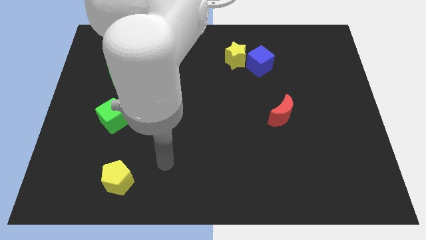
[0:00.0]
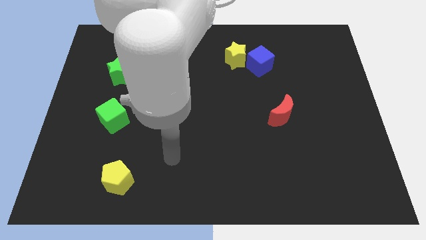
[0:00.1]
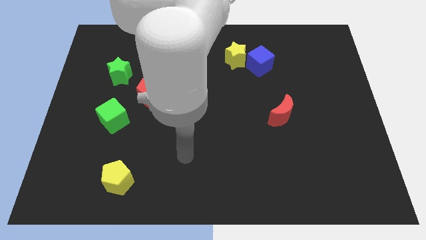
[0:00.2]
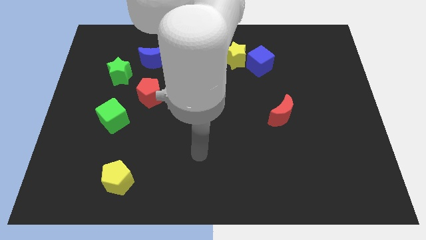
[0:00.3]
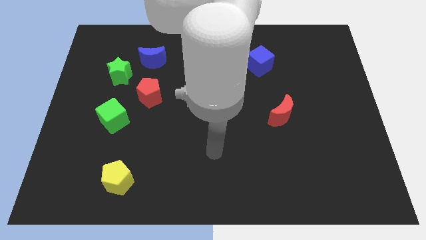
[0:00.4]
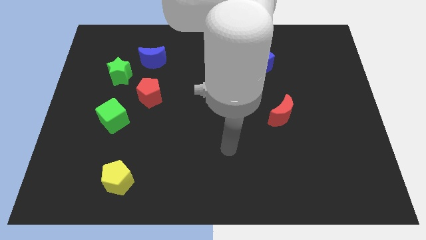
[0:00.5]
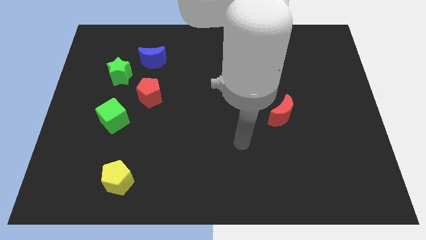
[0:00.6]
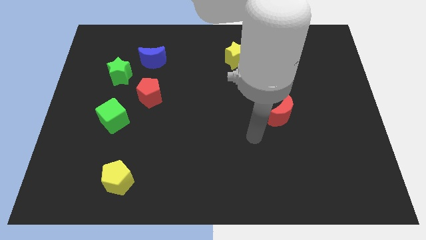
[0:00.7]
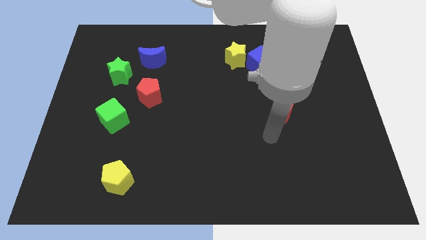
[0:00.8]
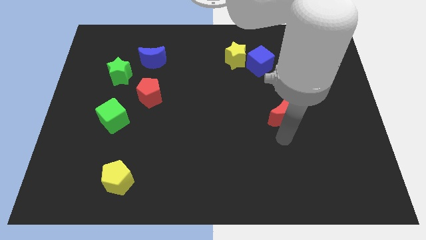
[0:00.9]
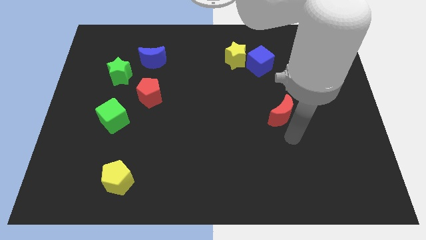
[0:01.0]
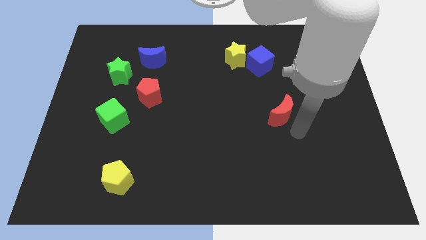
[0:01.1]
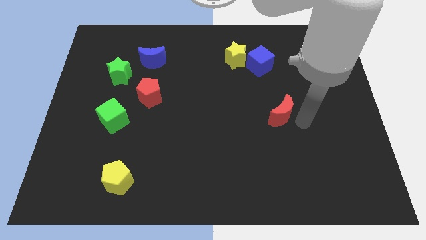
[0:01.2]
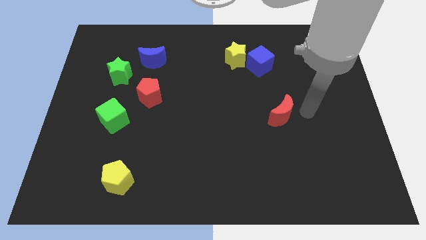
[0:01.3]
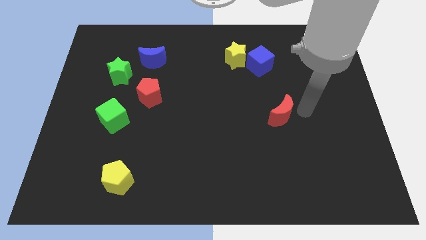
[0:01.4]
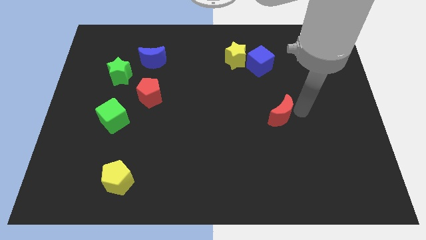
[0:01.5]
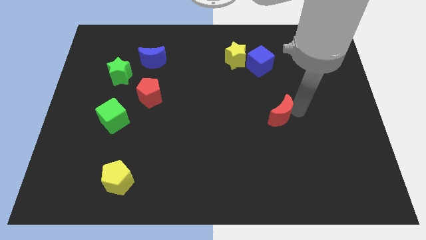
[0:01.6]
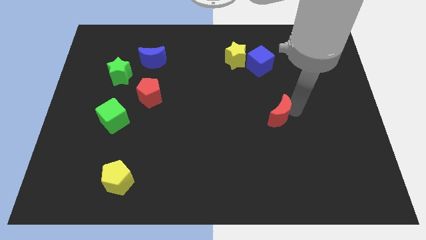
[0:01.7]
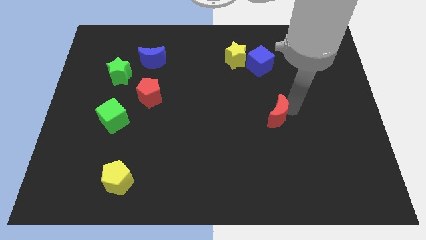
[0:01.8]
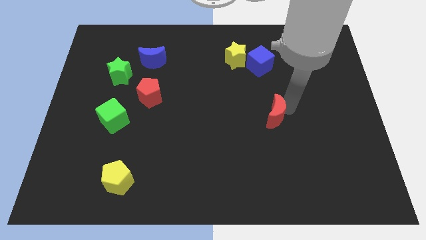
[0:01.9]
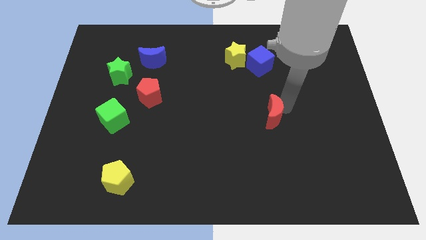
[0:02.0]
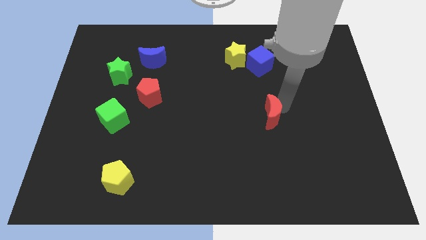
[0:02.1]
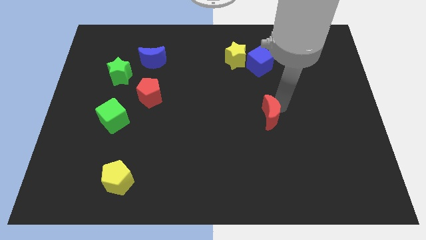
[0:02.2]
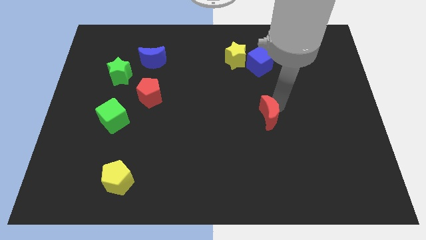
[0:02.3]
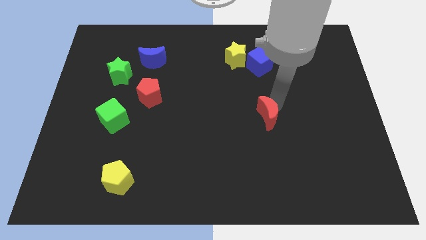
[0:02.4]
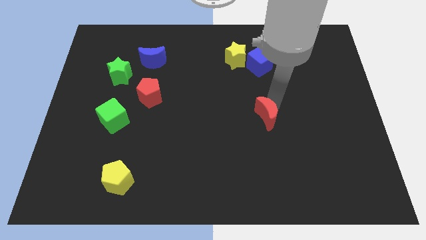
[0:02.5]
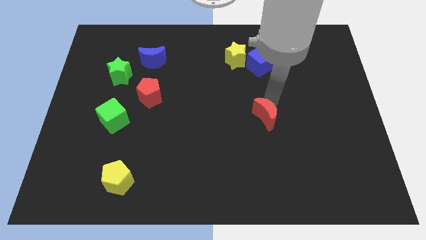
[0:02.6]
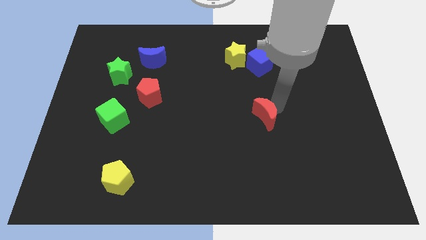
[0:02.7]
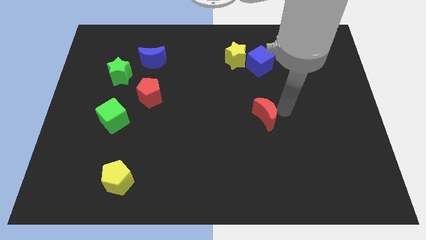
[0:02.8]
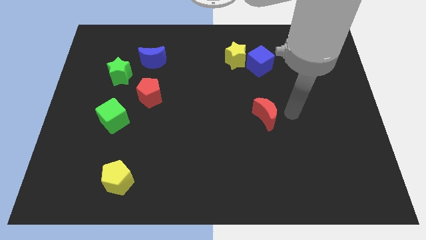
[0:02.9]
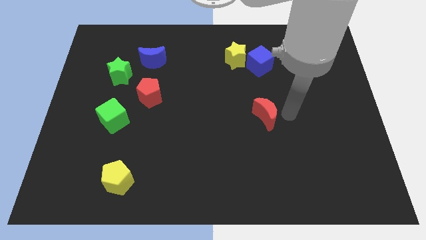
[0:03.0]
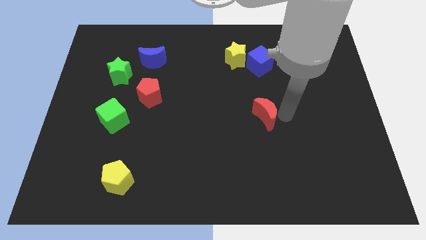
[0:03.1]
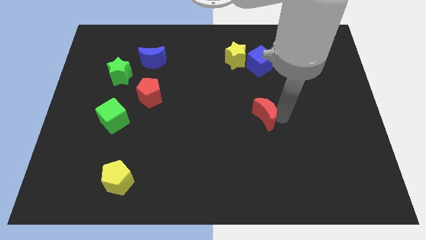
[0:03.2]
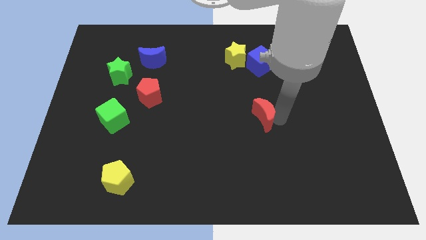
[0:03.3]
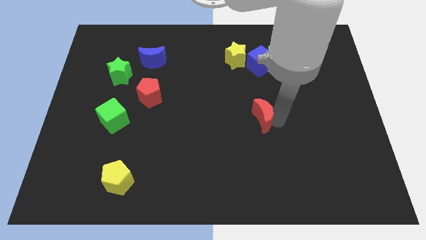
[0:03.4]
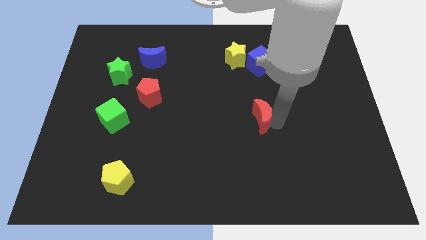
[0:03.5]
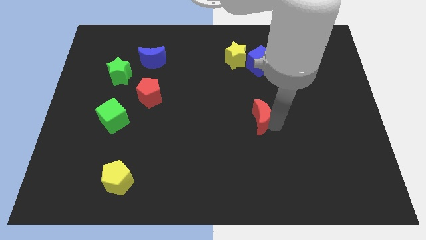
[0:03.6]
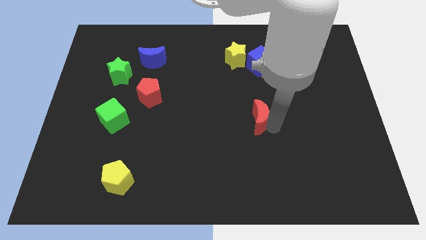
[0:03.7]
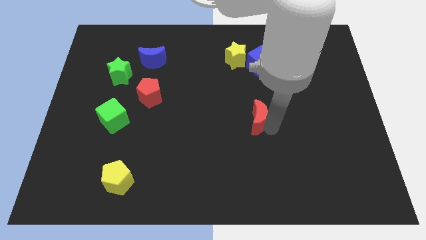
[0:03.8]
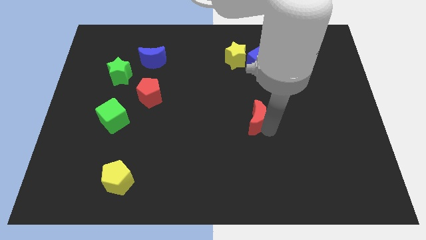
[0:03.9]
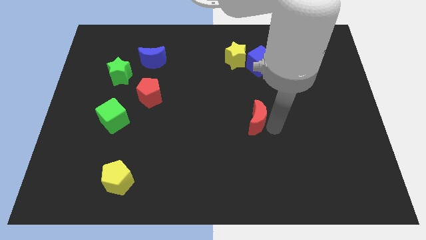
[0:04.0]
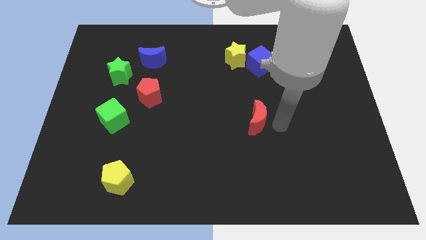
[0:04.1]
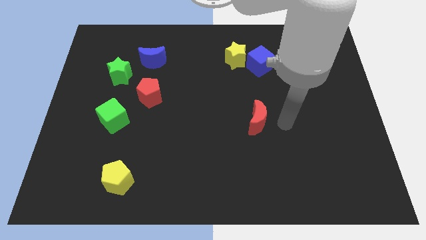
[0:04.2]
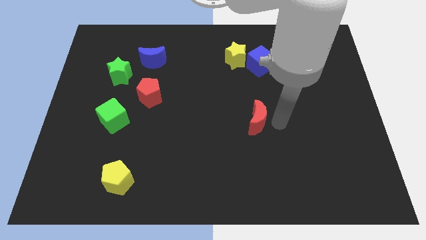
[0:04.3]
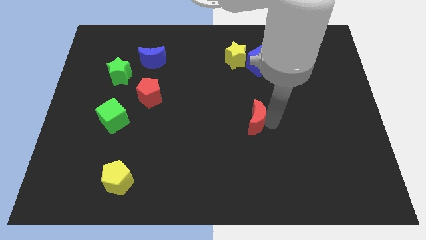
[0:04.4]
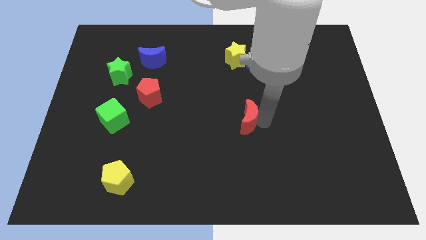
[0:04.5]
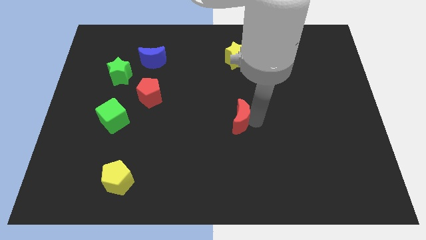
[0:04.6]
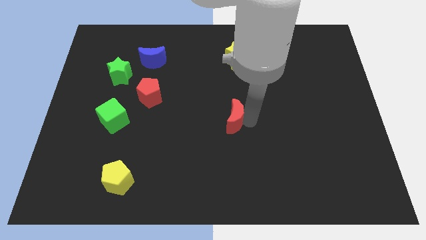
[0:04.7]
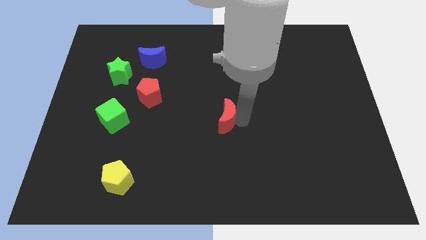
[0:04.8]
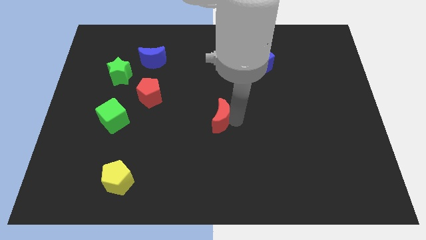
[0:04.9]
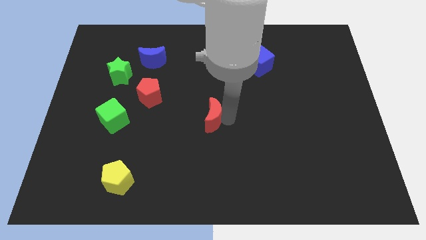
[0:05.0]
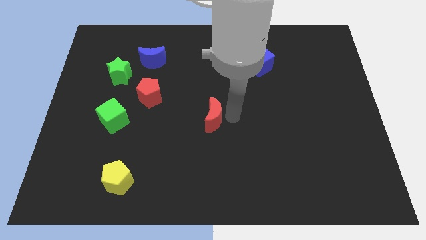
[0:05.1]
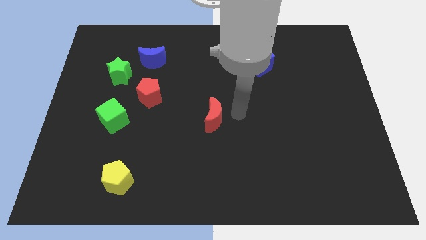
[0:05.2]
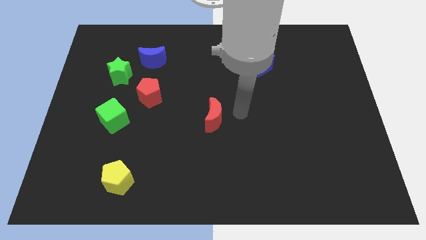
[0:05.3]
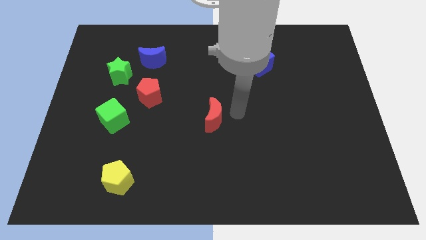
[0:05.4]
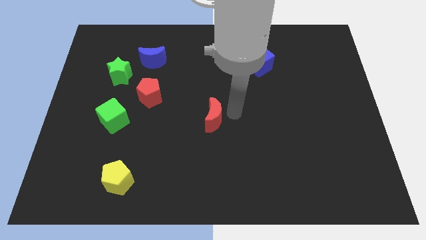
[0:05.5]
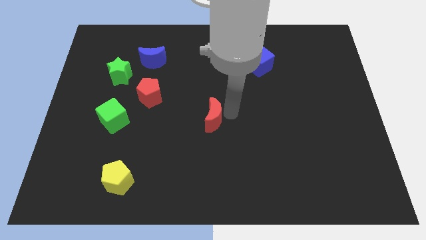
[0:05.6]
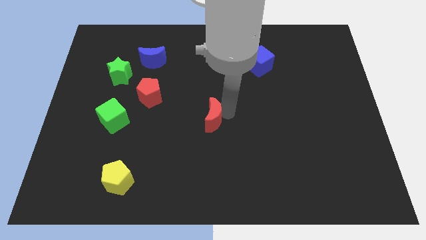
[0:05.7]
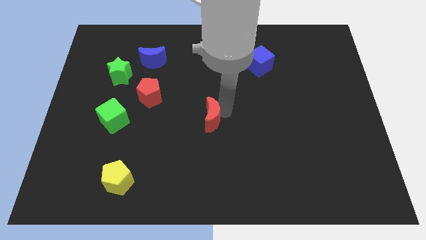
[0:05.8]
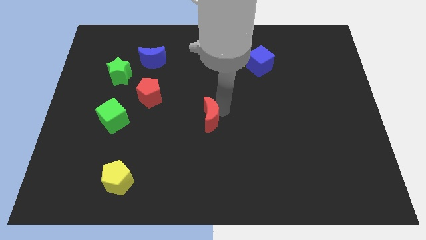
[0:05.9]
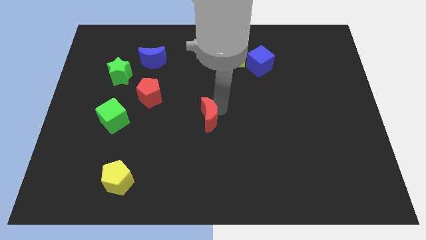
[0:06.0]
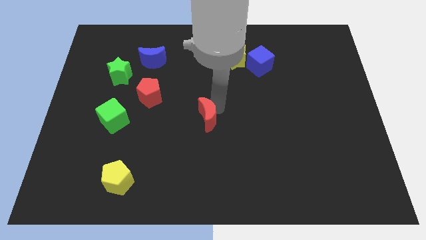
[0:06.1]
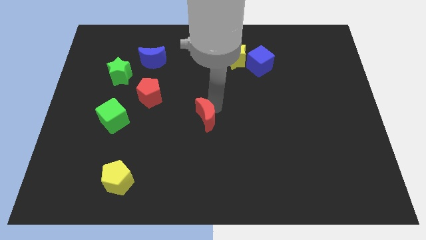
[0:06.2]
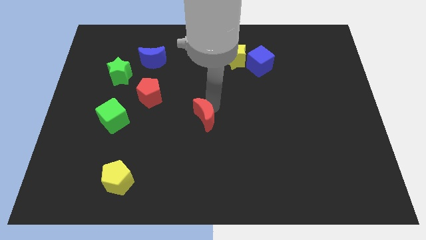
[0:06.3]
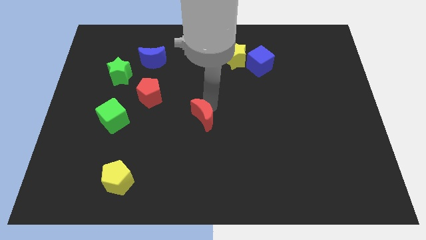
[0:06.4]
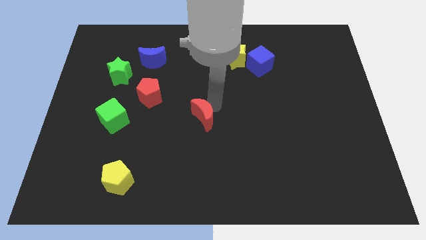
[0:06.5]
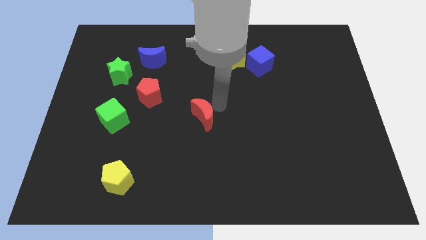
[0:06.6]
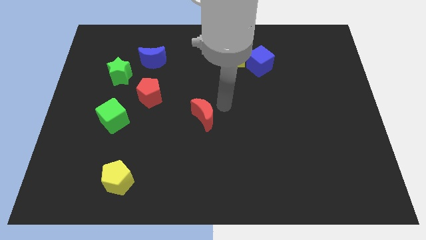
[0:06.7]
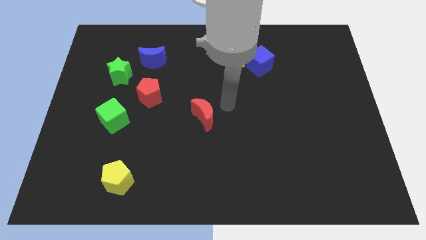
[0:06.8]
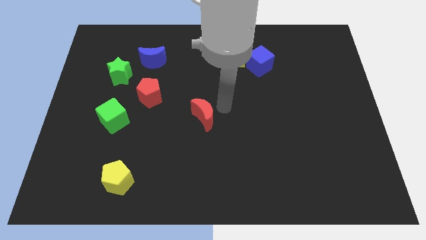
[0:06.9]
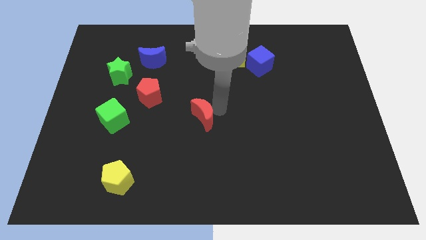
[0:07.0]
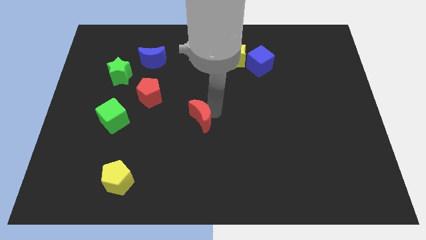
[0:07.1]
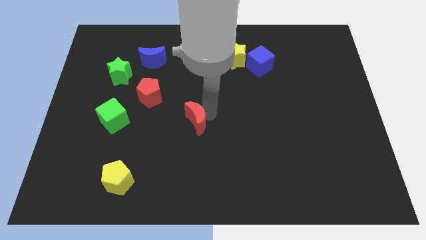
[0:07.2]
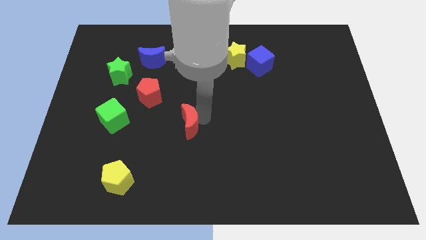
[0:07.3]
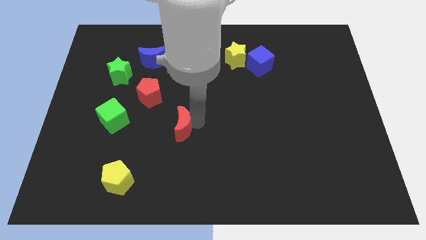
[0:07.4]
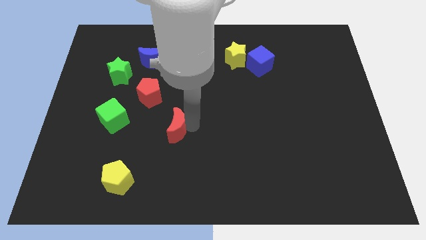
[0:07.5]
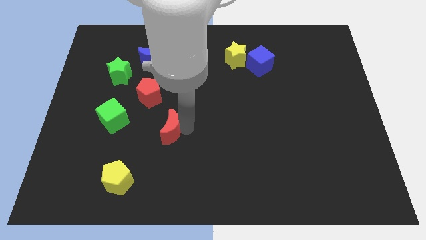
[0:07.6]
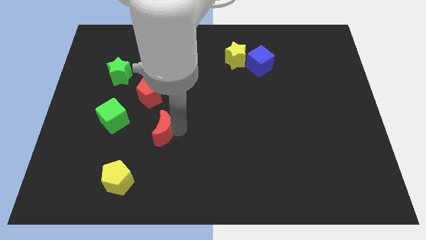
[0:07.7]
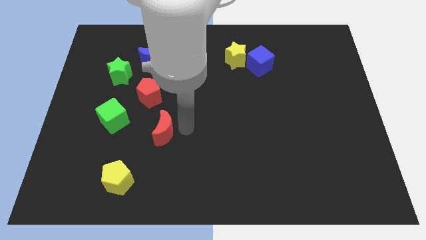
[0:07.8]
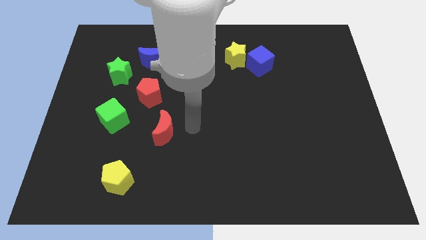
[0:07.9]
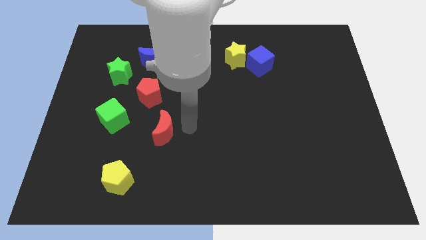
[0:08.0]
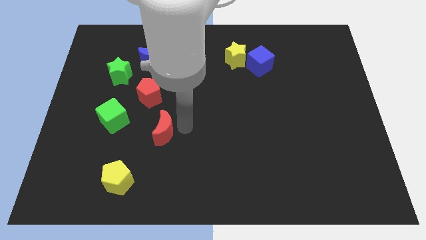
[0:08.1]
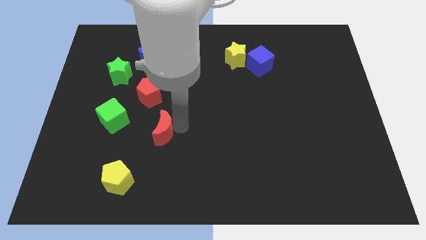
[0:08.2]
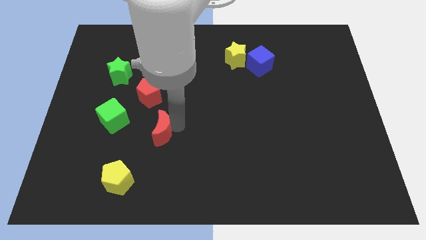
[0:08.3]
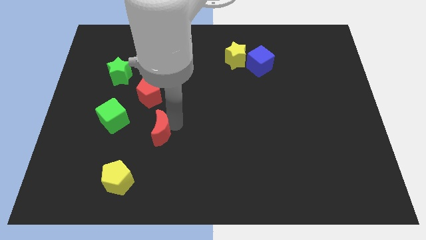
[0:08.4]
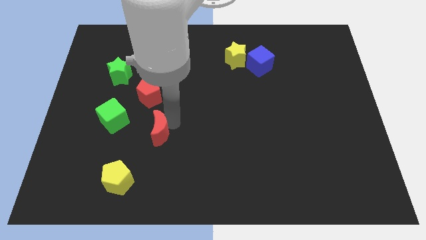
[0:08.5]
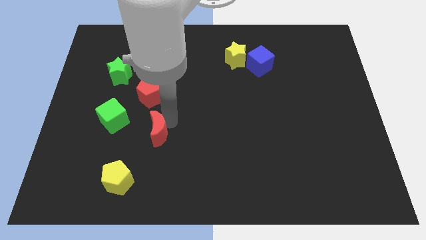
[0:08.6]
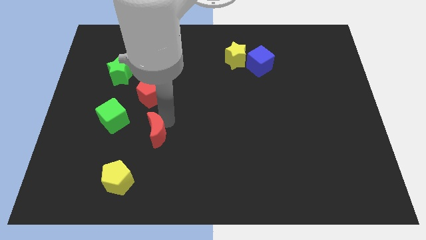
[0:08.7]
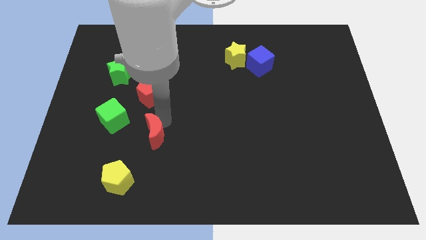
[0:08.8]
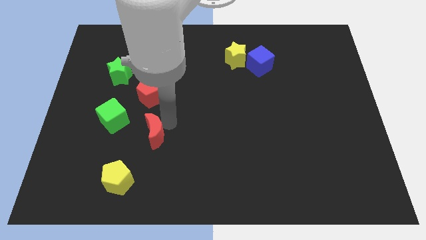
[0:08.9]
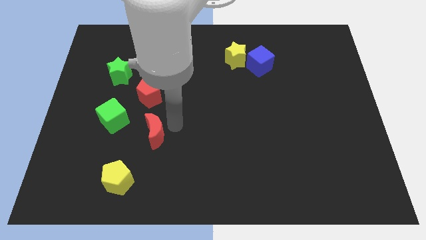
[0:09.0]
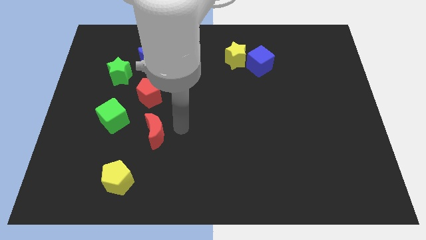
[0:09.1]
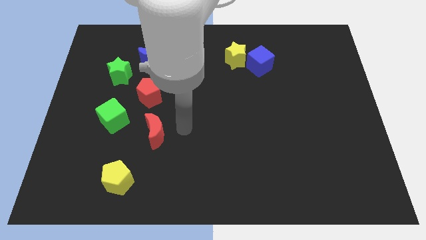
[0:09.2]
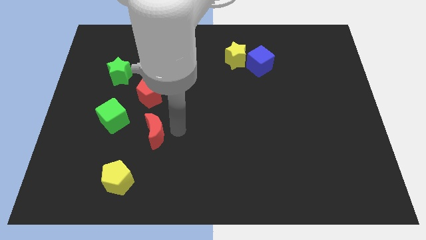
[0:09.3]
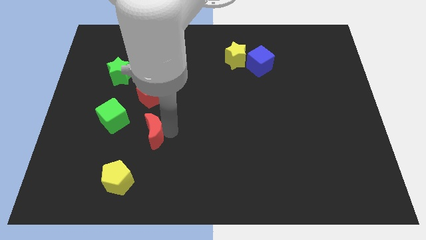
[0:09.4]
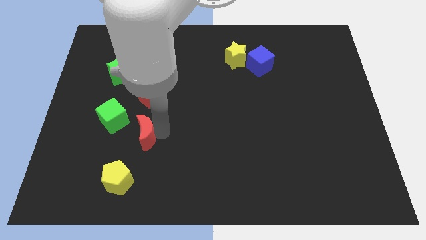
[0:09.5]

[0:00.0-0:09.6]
put the red moon above the yellow pentagon
